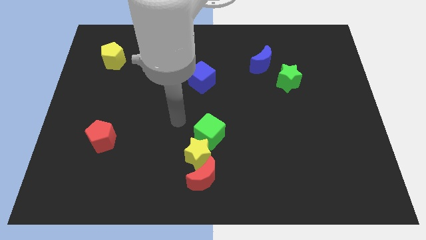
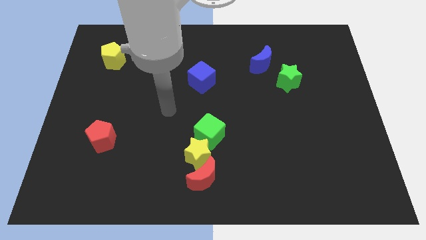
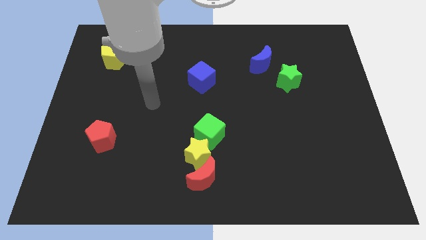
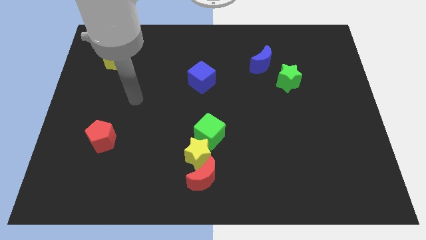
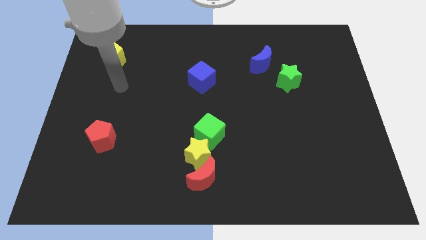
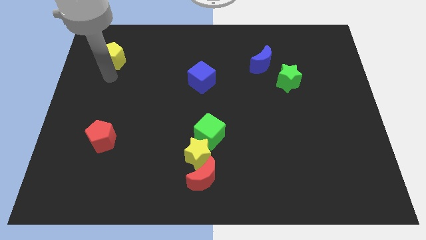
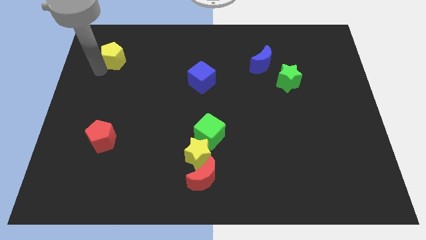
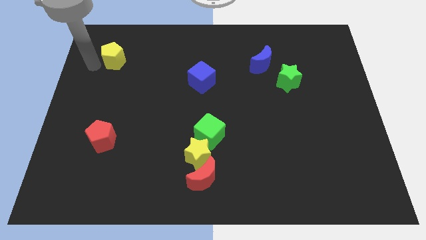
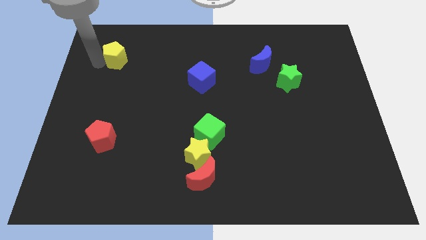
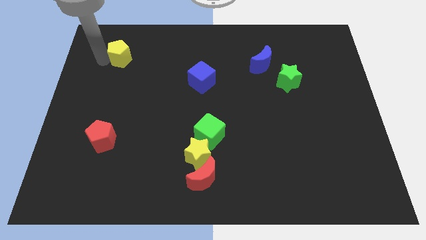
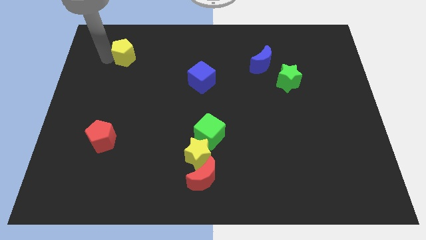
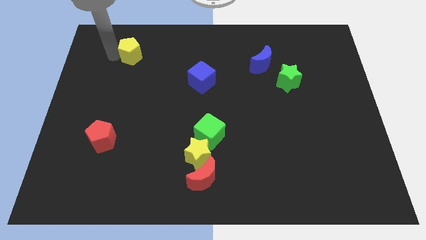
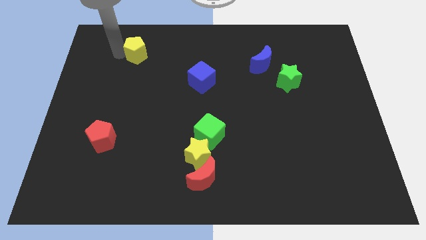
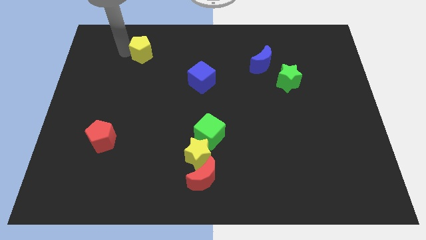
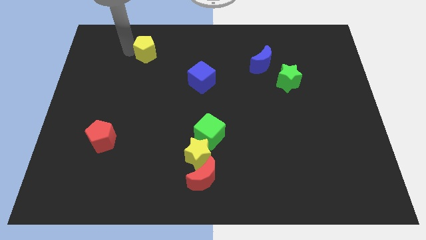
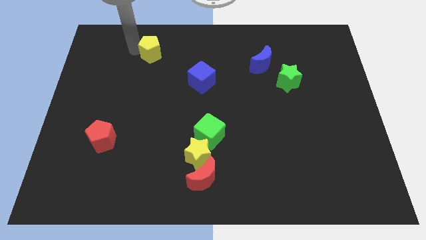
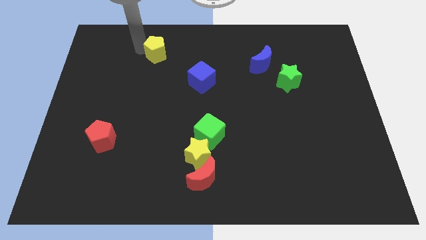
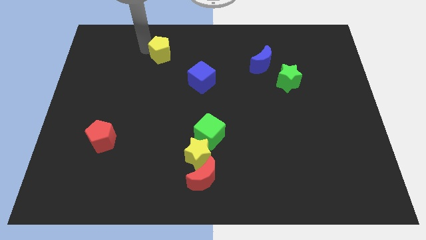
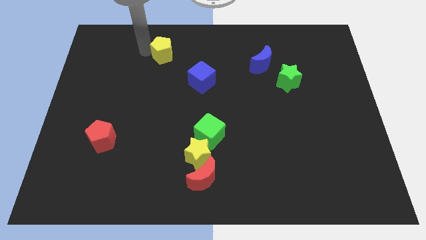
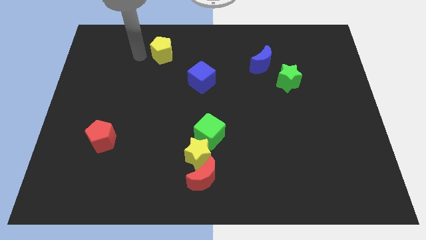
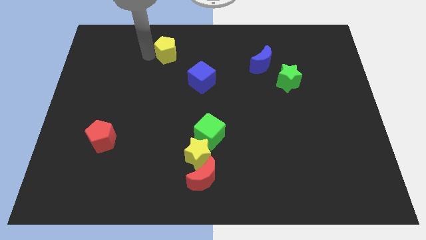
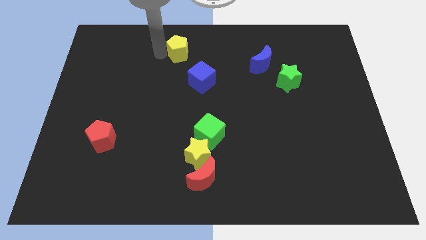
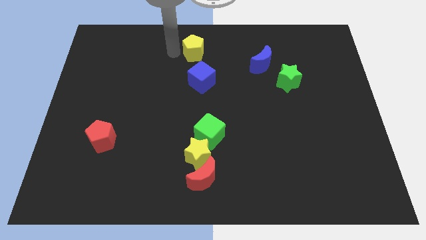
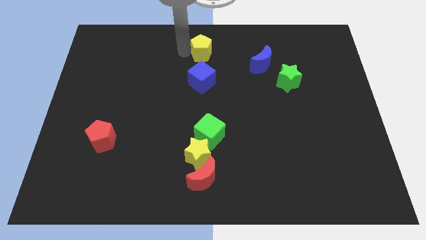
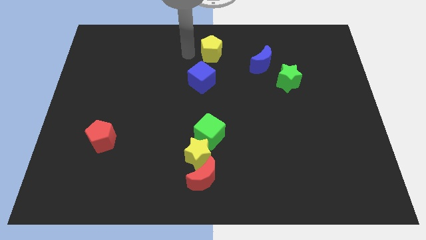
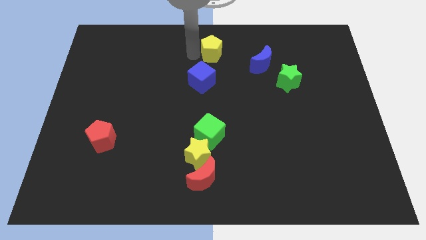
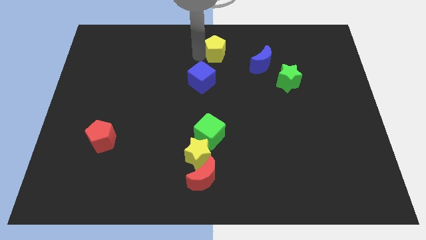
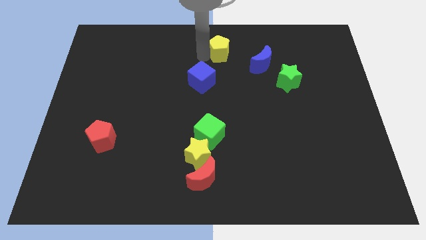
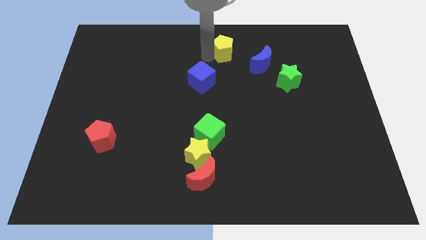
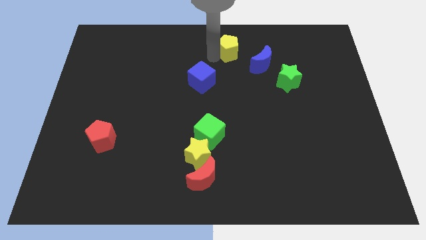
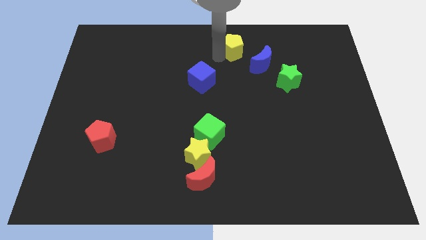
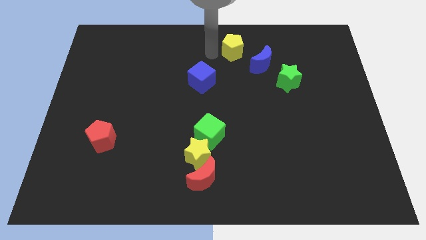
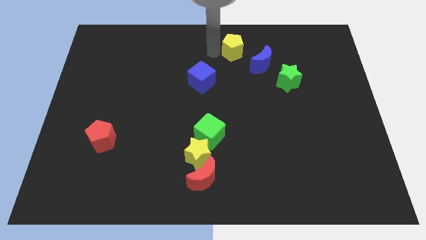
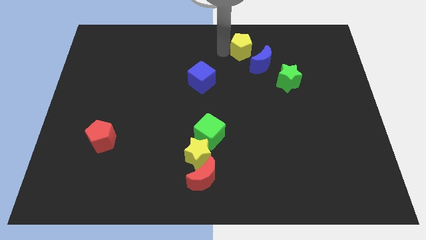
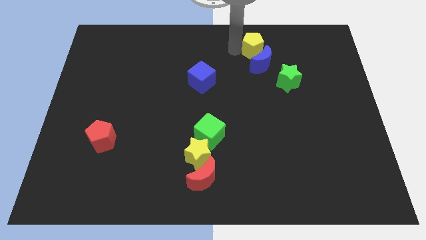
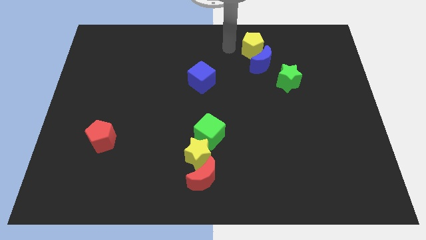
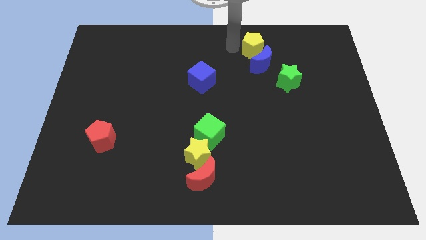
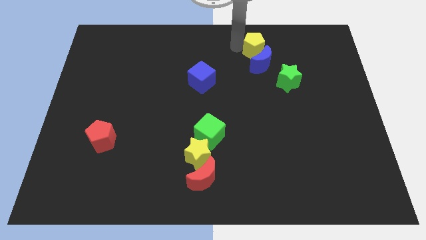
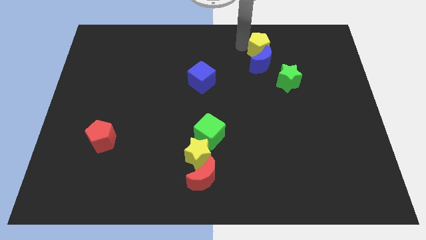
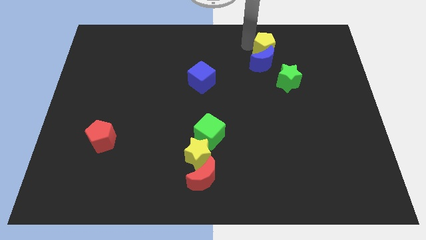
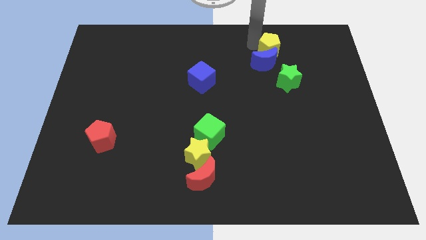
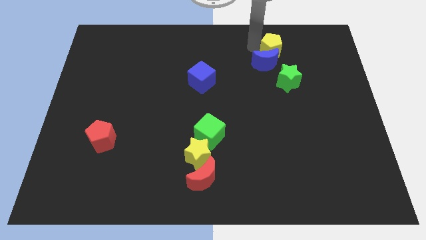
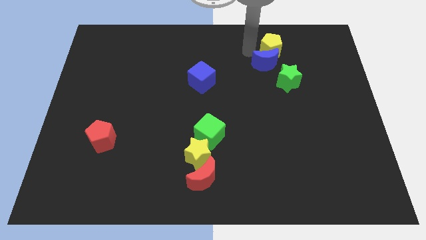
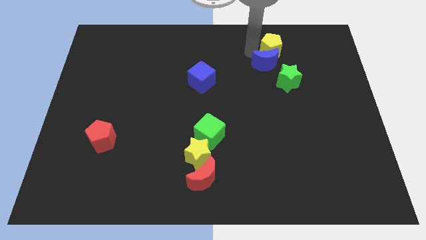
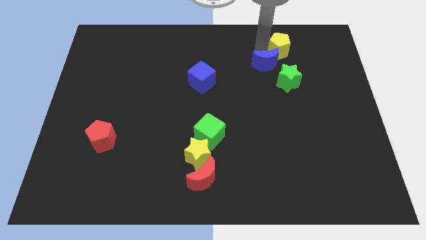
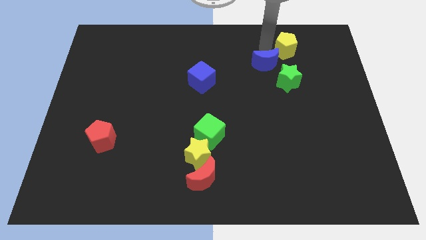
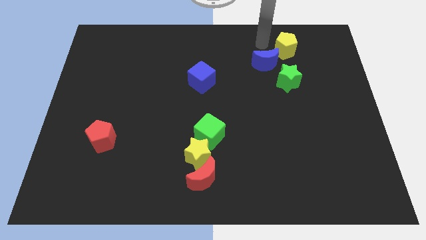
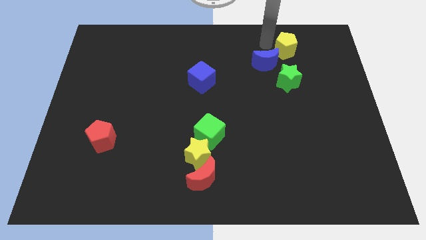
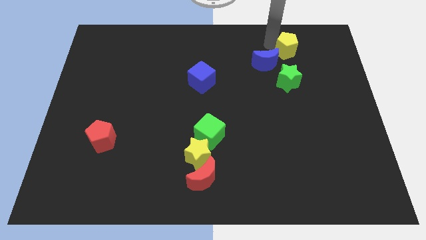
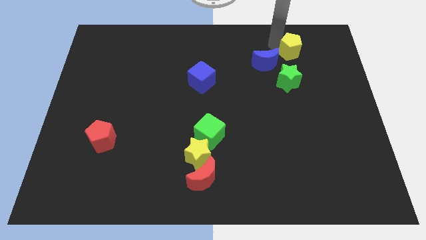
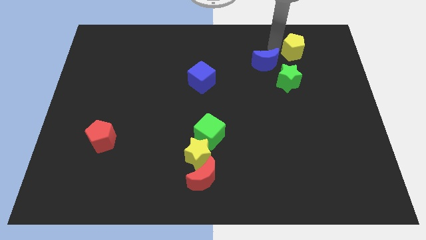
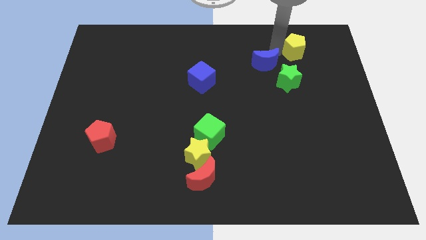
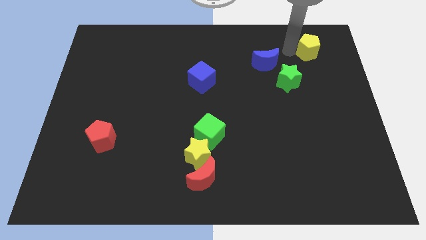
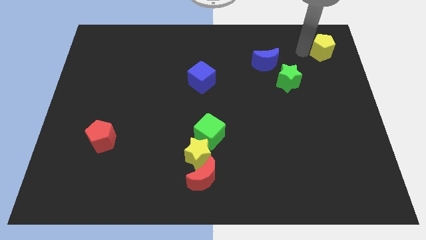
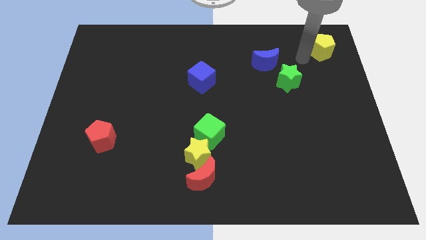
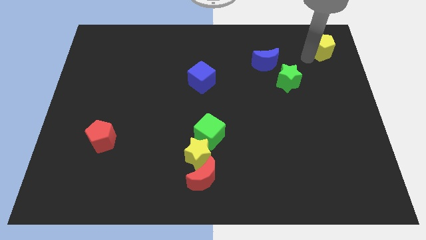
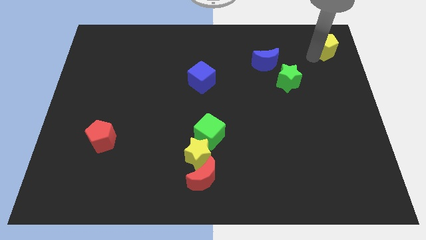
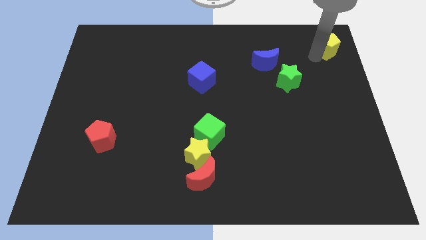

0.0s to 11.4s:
put the yellow pentagon to the top right

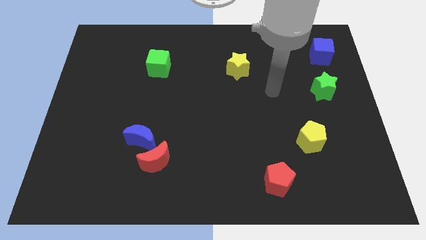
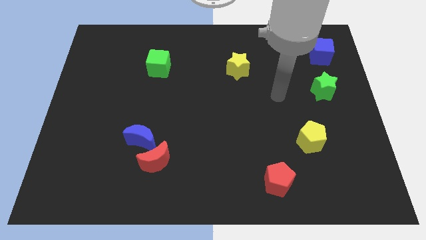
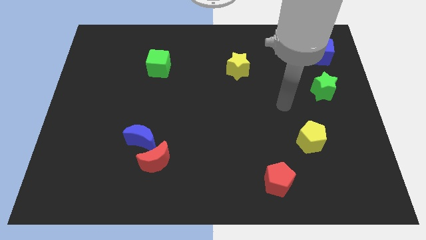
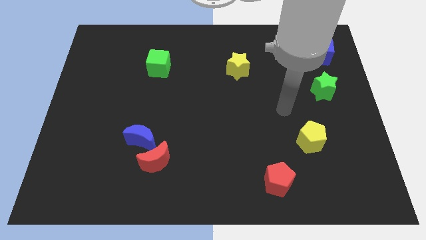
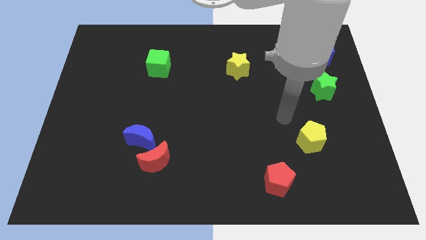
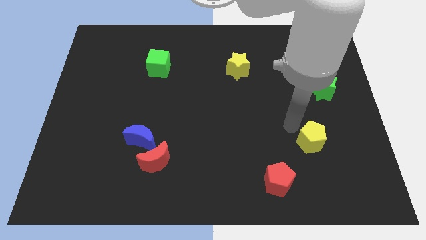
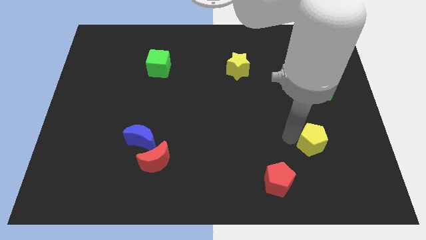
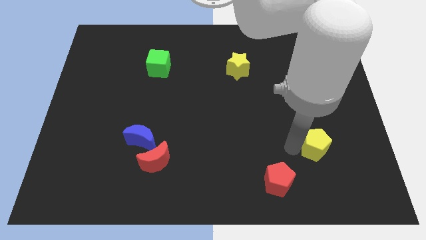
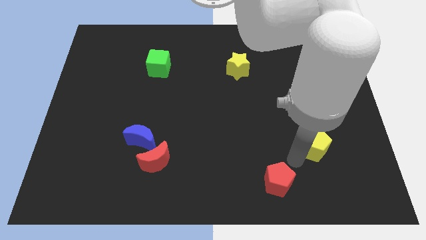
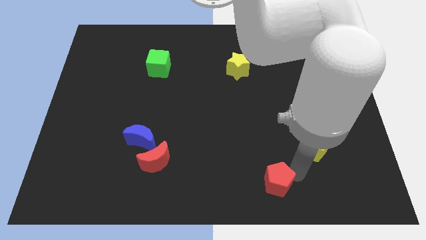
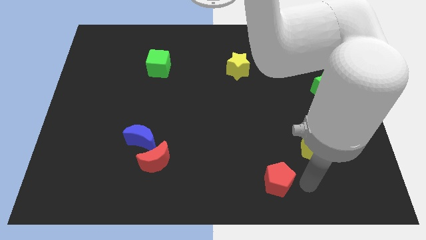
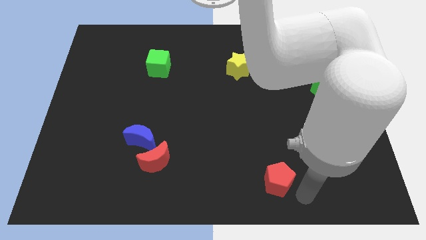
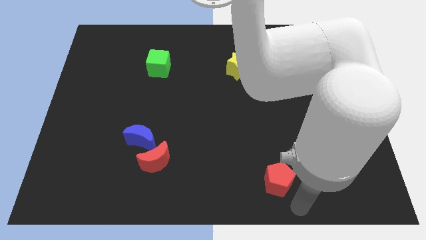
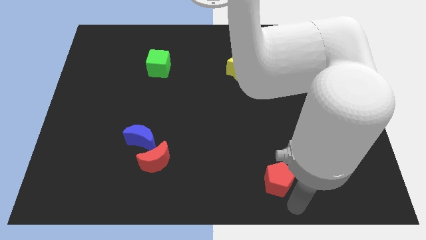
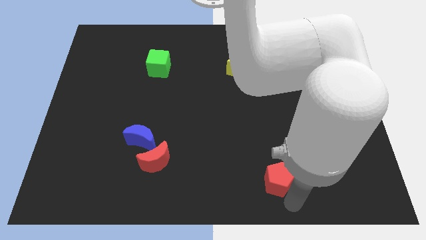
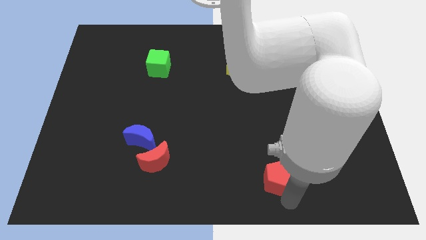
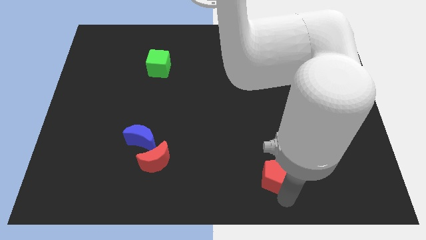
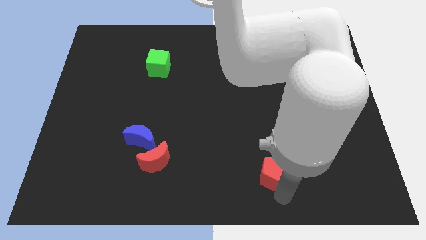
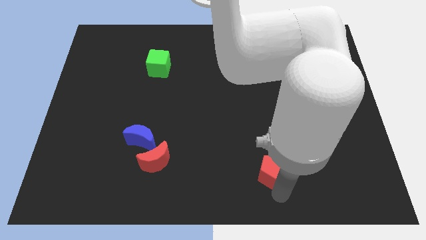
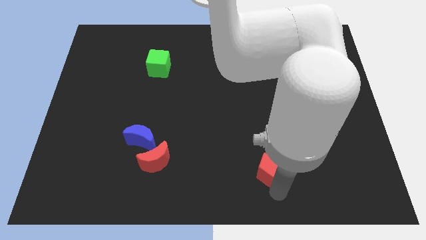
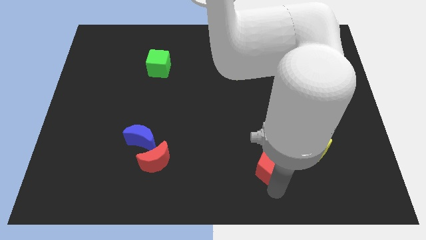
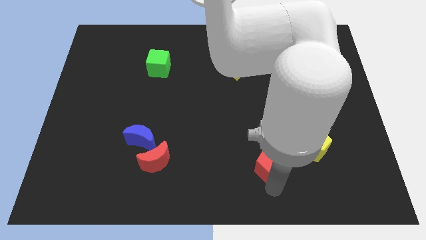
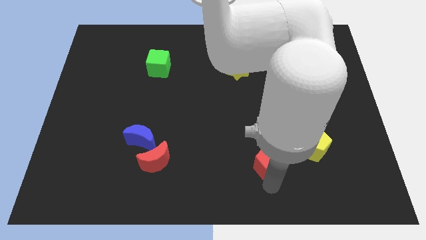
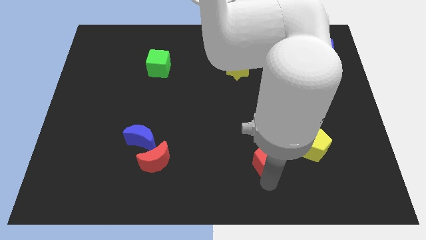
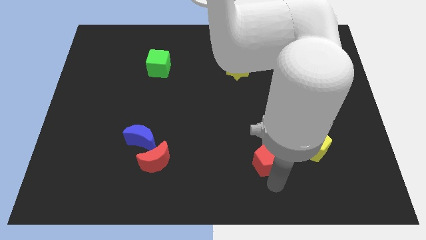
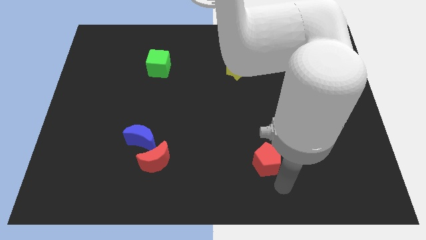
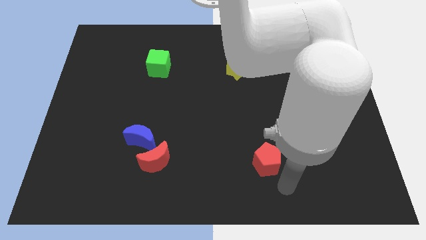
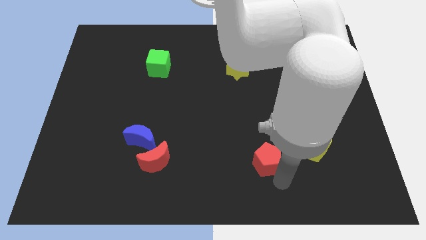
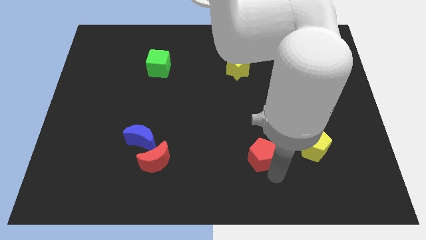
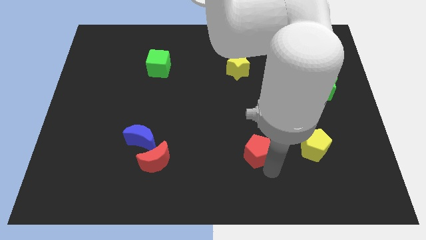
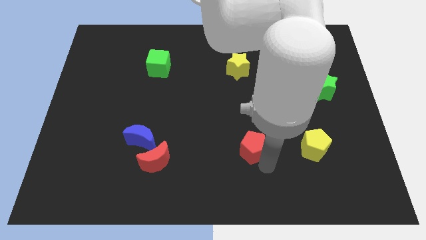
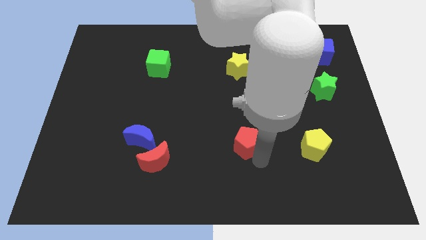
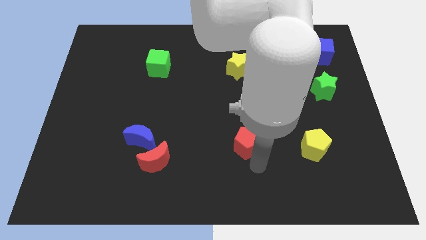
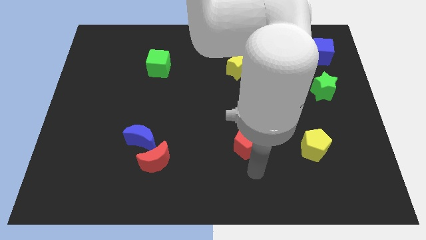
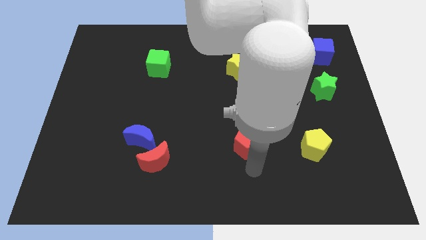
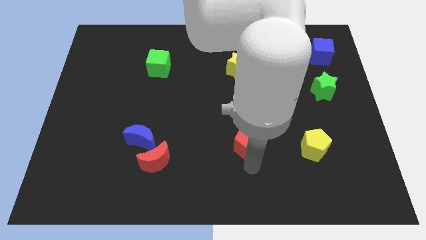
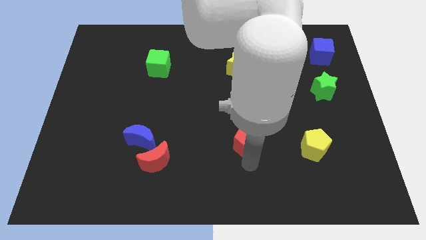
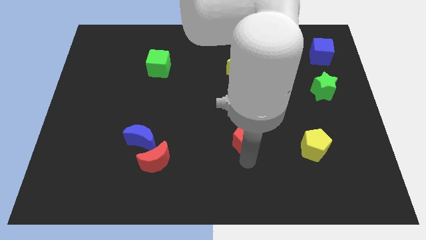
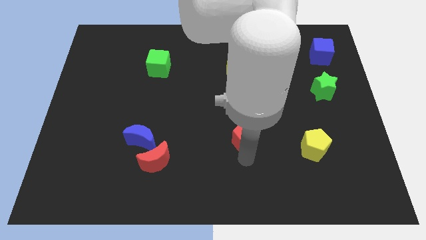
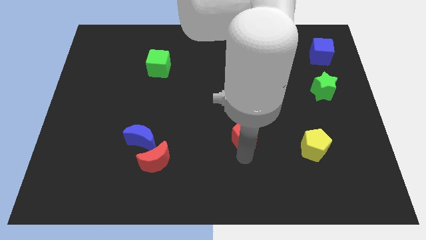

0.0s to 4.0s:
move the red pentagon to the middle of the board
